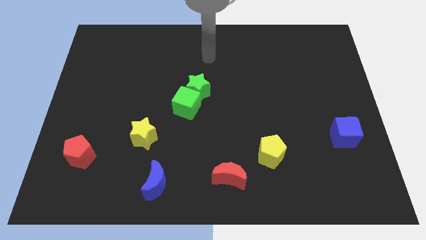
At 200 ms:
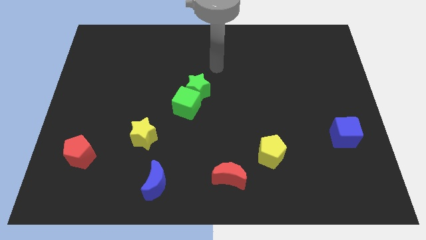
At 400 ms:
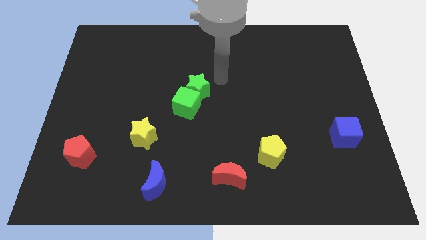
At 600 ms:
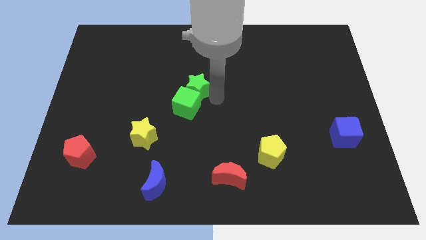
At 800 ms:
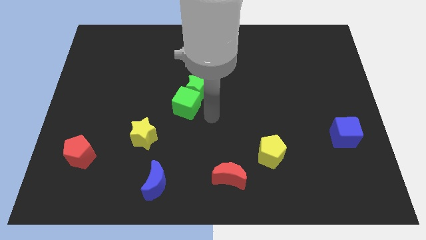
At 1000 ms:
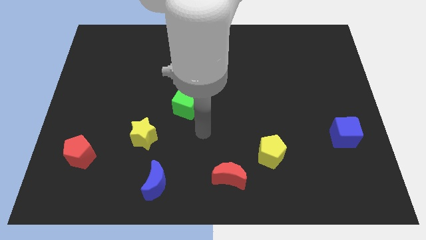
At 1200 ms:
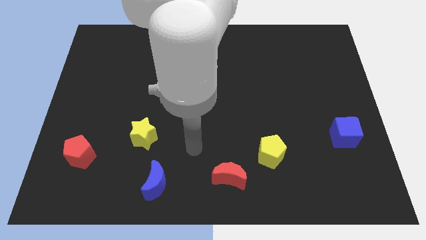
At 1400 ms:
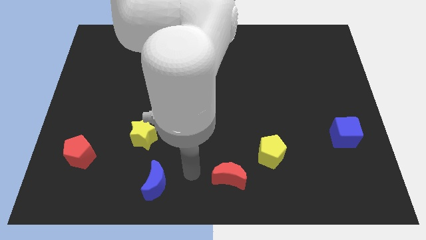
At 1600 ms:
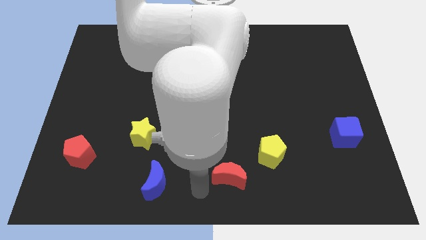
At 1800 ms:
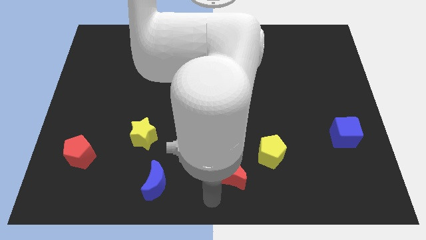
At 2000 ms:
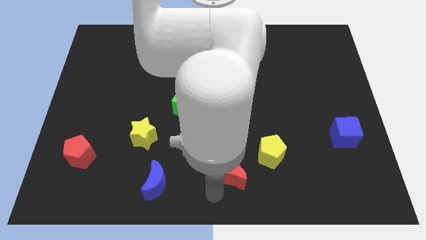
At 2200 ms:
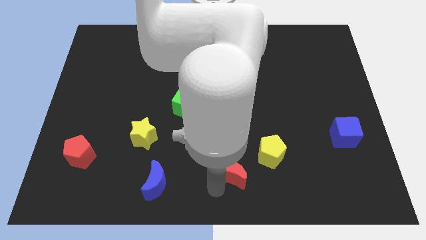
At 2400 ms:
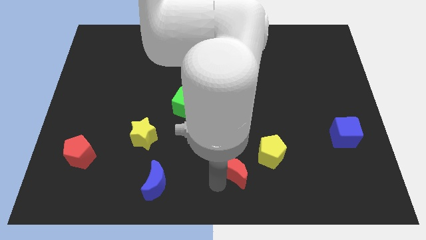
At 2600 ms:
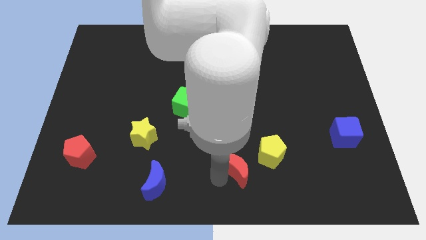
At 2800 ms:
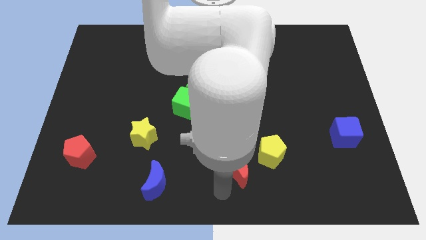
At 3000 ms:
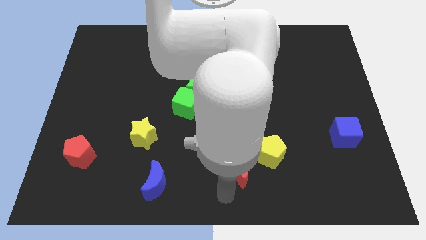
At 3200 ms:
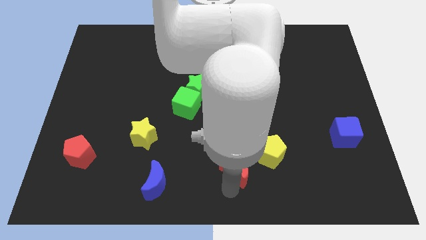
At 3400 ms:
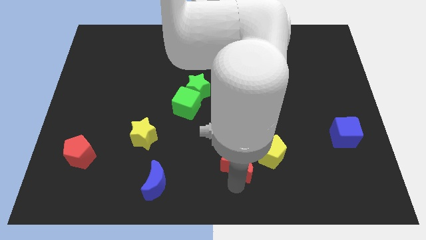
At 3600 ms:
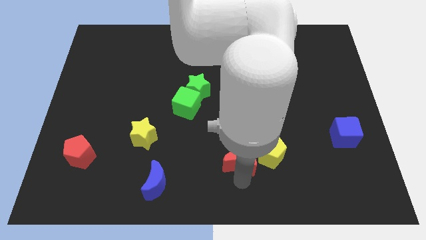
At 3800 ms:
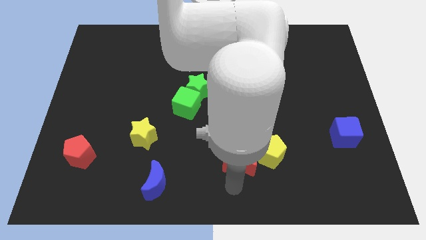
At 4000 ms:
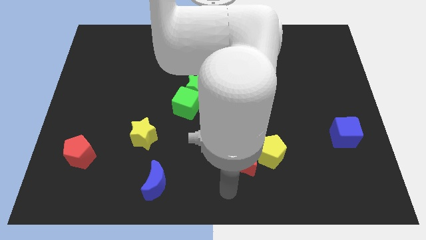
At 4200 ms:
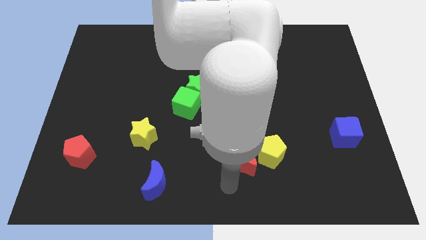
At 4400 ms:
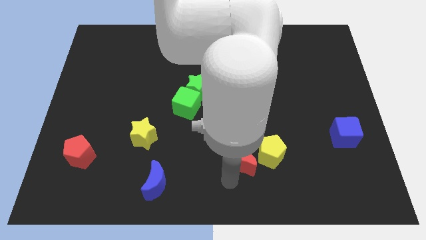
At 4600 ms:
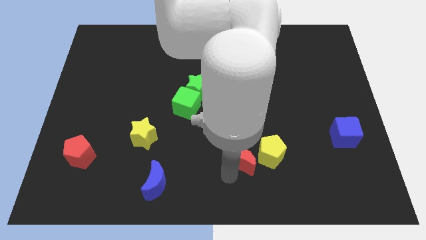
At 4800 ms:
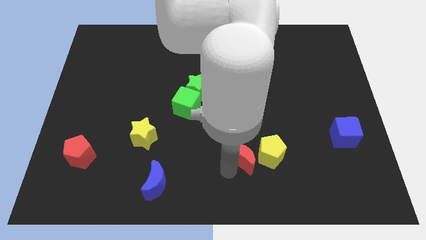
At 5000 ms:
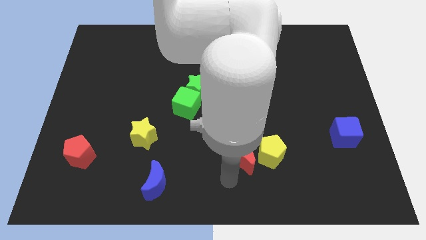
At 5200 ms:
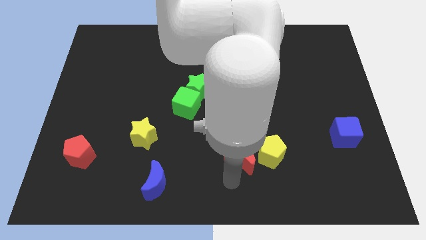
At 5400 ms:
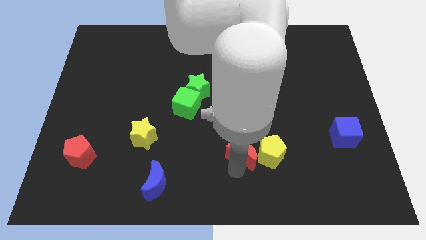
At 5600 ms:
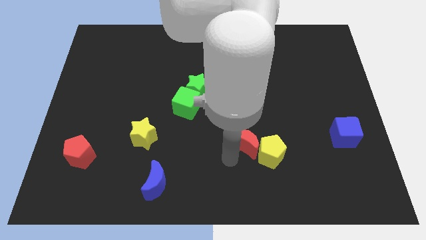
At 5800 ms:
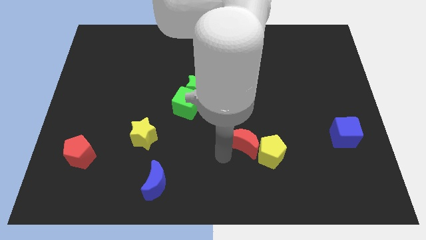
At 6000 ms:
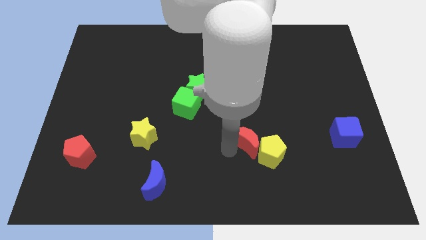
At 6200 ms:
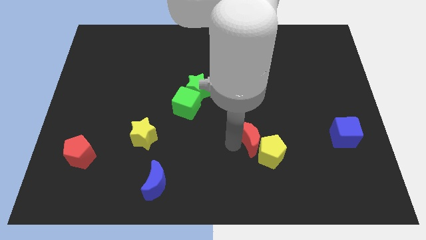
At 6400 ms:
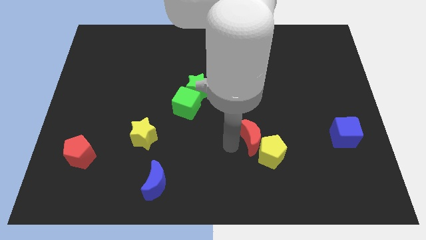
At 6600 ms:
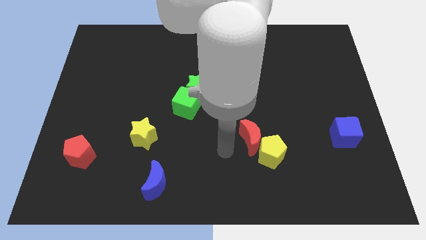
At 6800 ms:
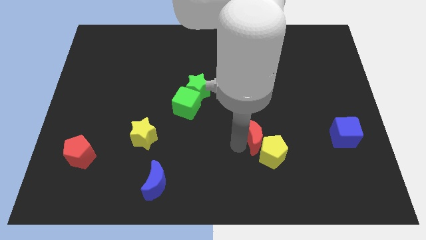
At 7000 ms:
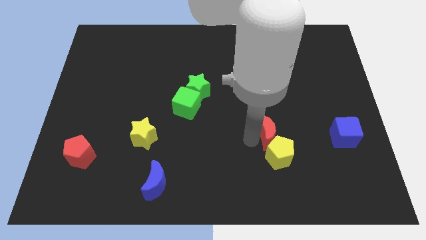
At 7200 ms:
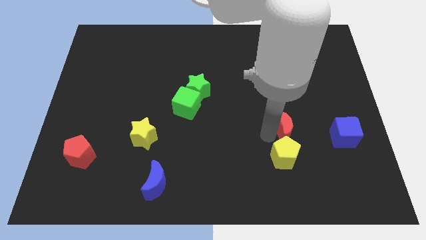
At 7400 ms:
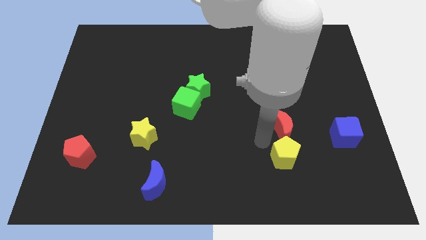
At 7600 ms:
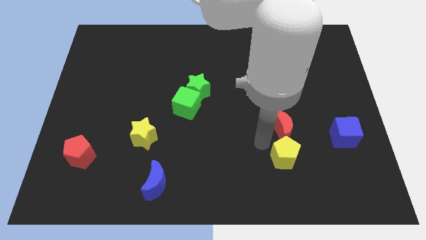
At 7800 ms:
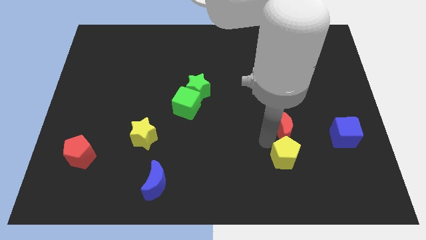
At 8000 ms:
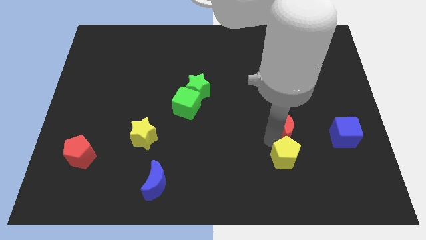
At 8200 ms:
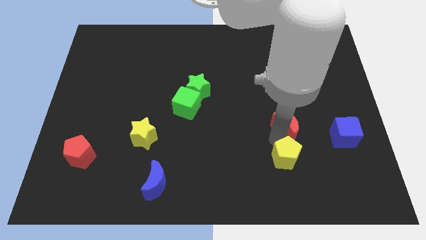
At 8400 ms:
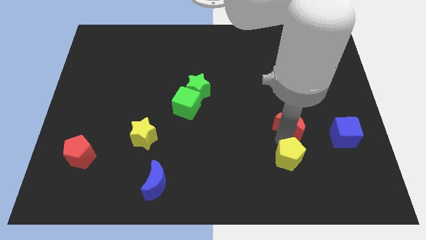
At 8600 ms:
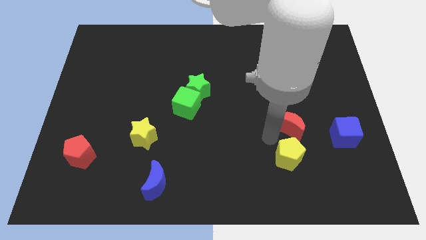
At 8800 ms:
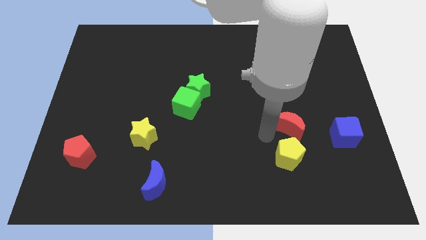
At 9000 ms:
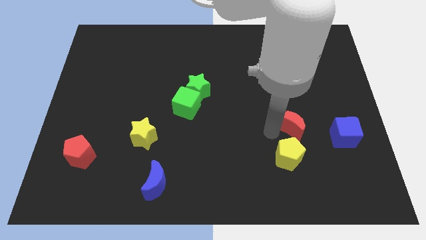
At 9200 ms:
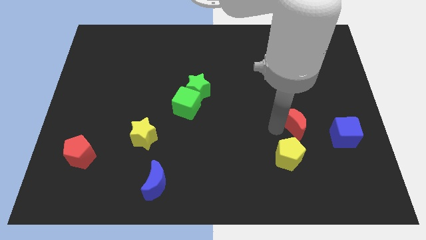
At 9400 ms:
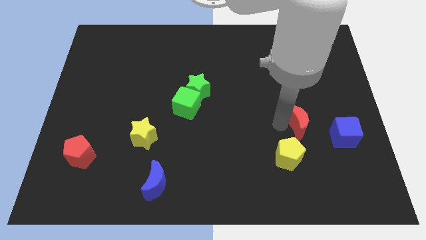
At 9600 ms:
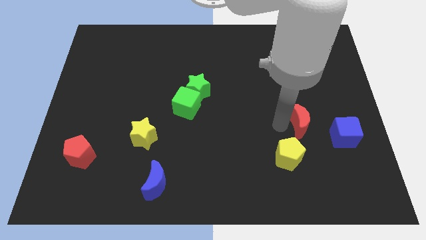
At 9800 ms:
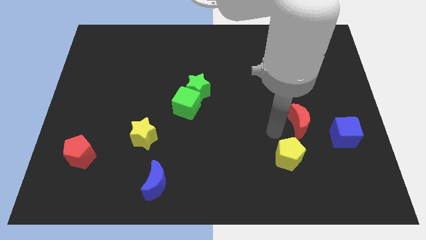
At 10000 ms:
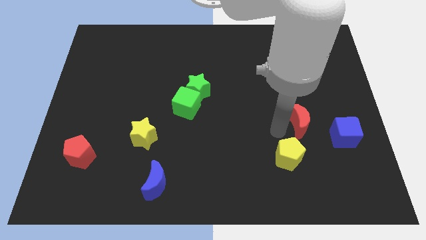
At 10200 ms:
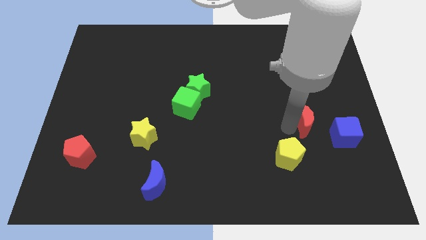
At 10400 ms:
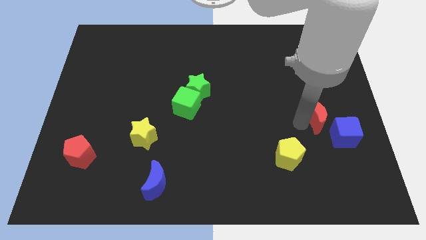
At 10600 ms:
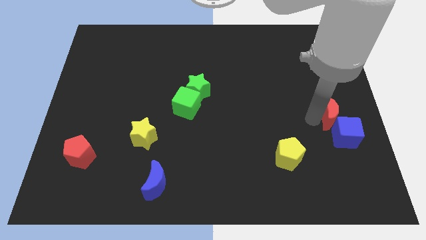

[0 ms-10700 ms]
slide the red moon to the right side

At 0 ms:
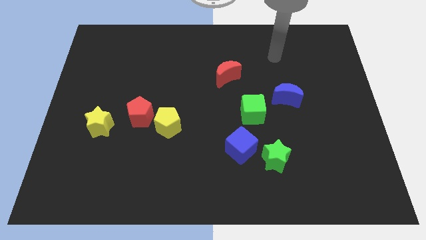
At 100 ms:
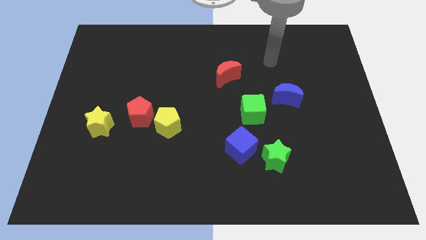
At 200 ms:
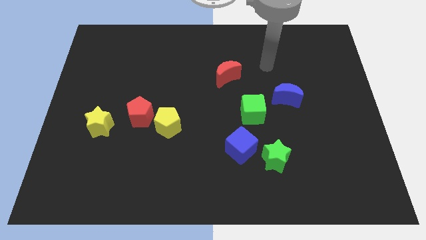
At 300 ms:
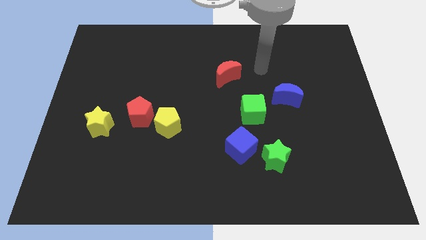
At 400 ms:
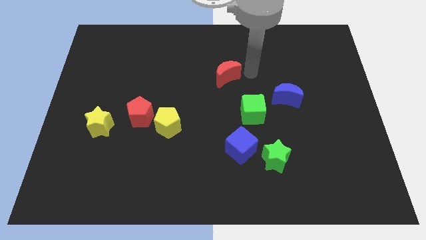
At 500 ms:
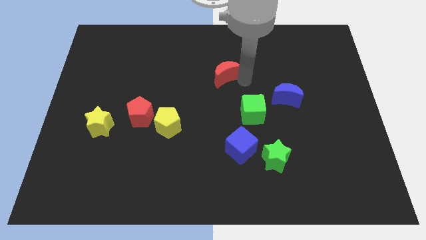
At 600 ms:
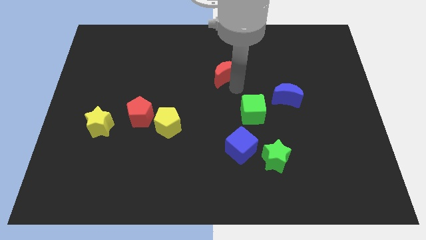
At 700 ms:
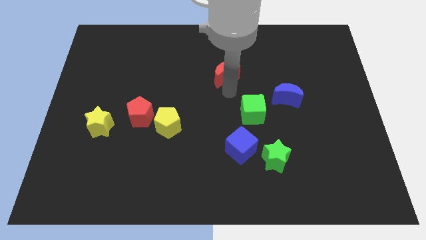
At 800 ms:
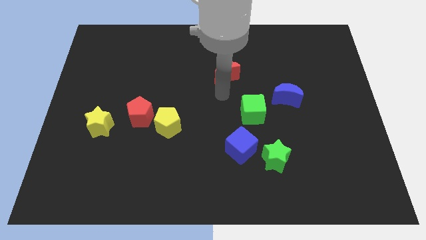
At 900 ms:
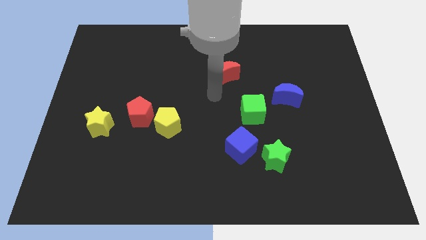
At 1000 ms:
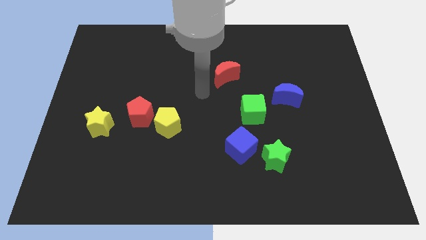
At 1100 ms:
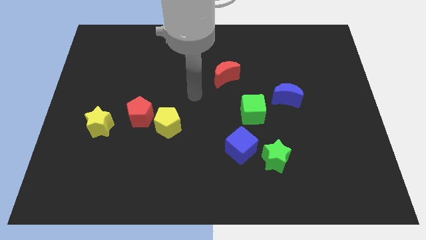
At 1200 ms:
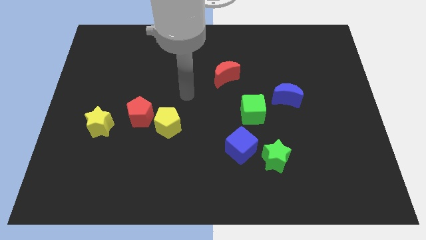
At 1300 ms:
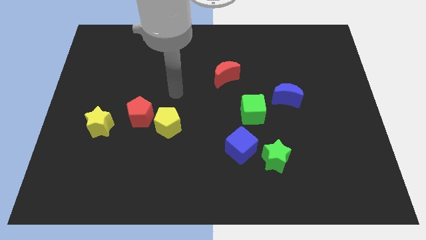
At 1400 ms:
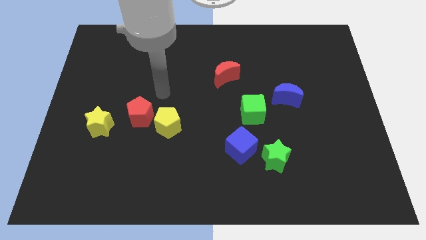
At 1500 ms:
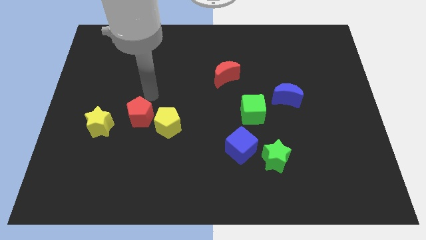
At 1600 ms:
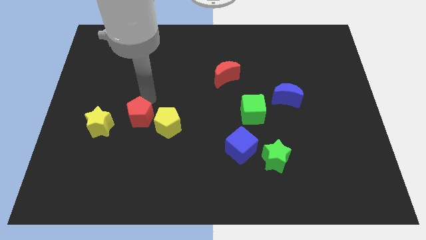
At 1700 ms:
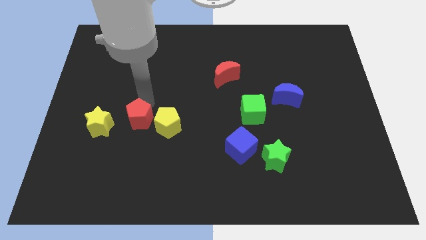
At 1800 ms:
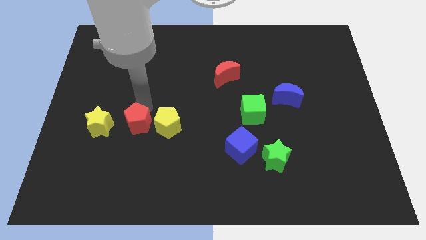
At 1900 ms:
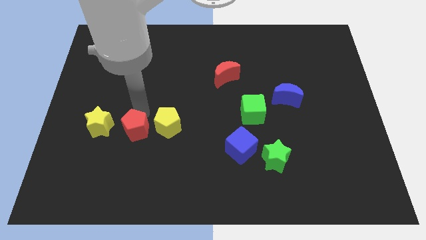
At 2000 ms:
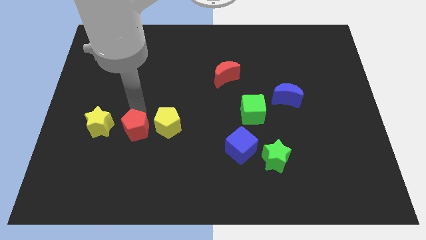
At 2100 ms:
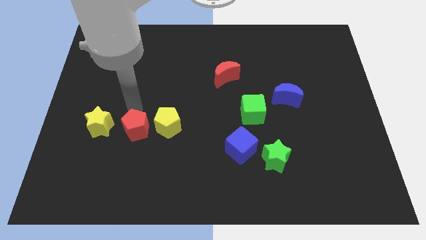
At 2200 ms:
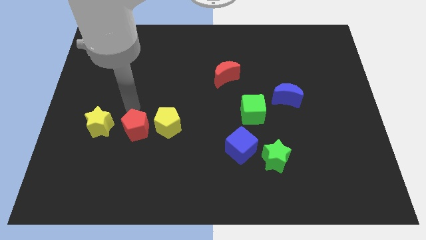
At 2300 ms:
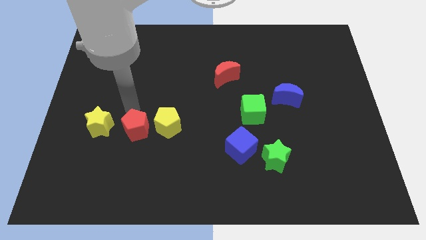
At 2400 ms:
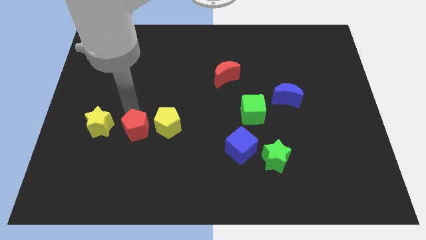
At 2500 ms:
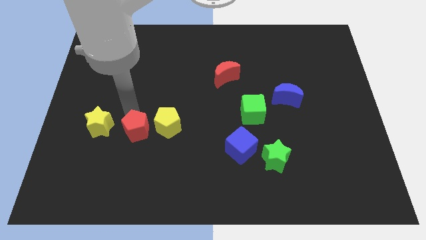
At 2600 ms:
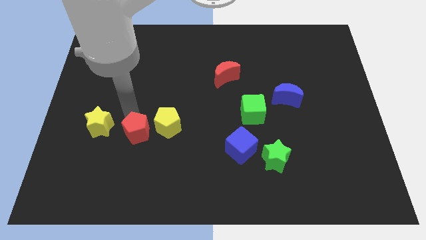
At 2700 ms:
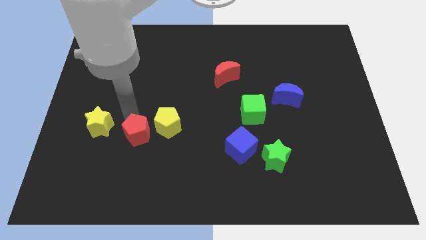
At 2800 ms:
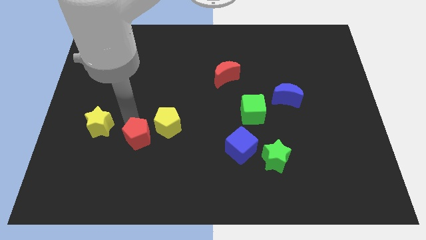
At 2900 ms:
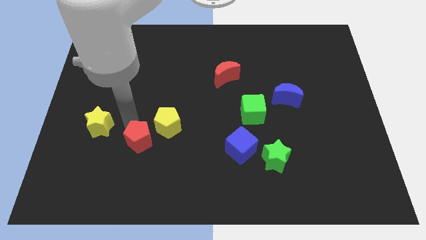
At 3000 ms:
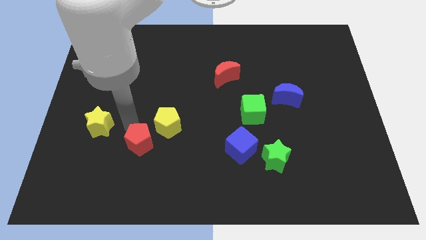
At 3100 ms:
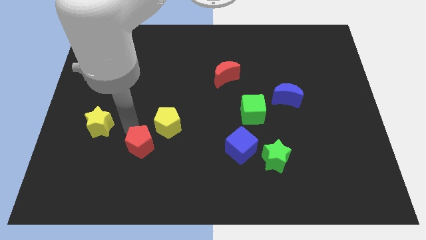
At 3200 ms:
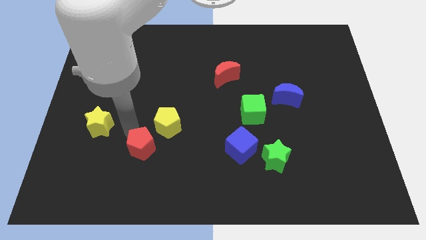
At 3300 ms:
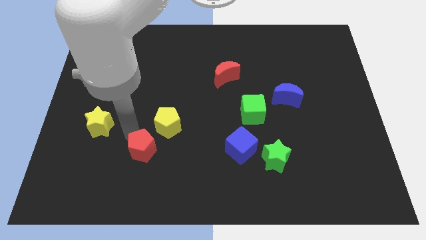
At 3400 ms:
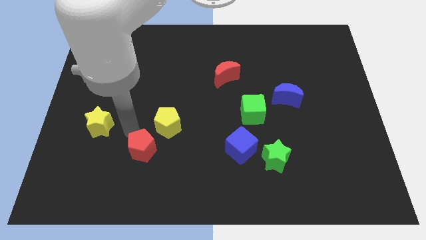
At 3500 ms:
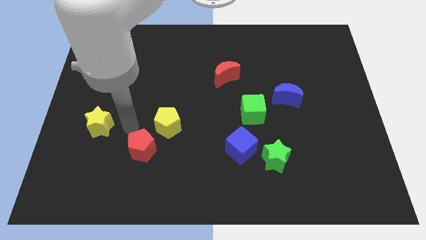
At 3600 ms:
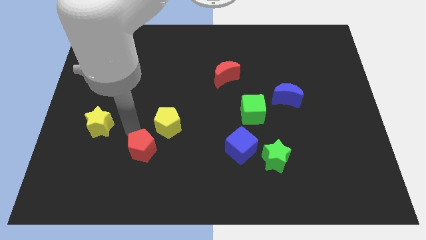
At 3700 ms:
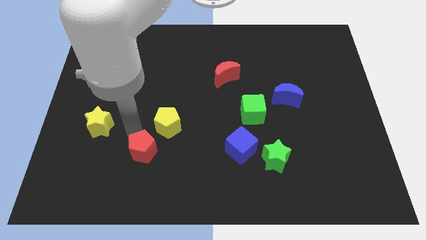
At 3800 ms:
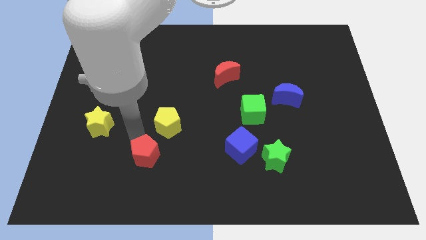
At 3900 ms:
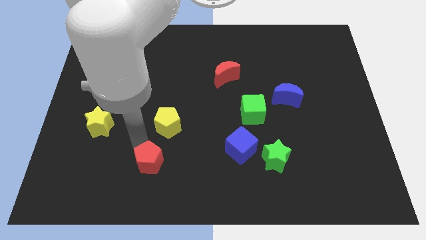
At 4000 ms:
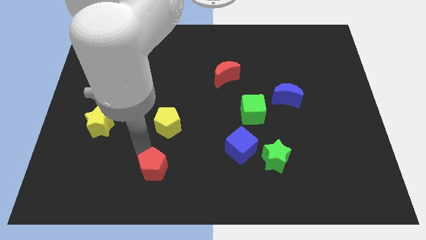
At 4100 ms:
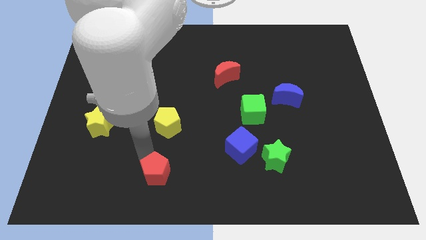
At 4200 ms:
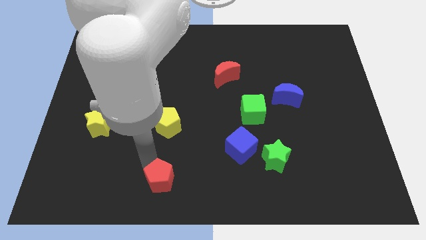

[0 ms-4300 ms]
slide the red pentagon to the bottom
